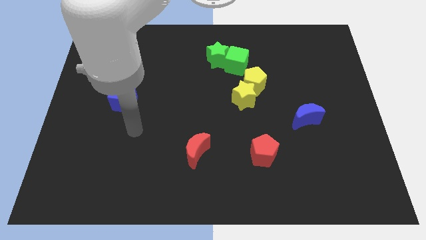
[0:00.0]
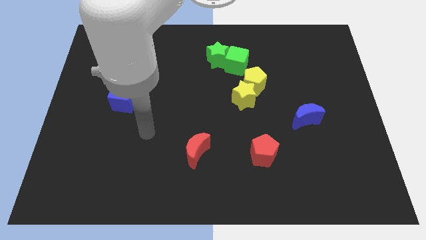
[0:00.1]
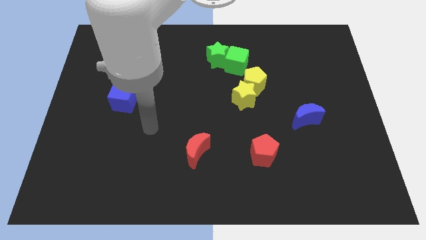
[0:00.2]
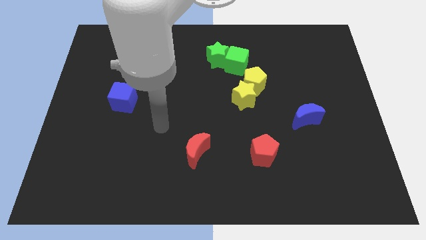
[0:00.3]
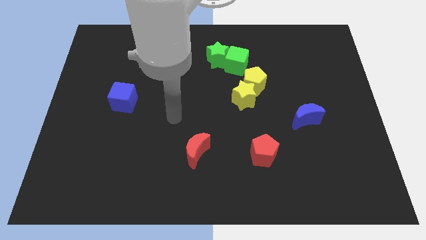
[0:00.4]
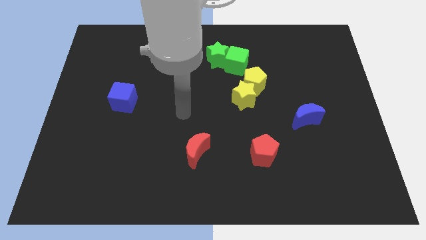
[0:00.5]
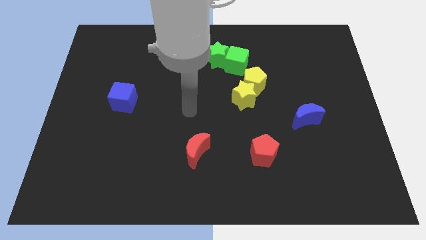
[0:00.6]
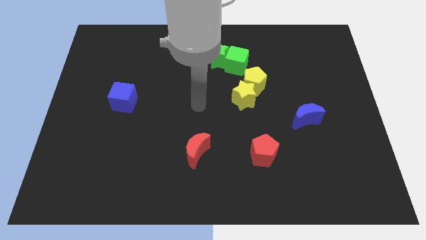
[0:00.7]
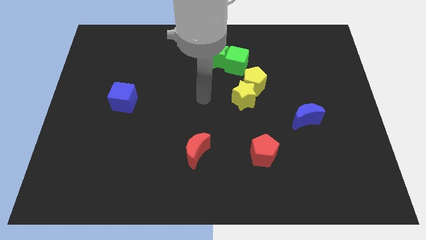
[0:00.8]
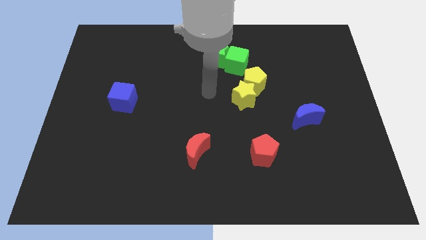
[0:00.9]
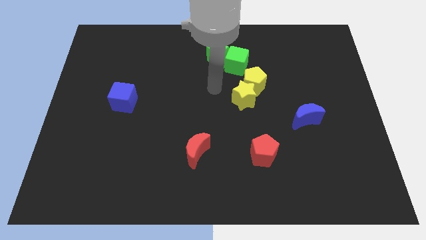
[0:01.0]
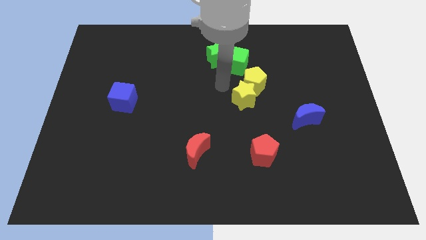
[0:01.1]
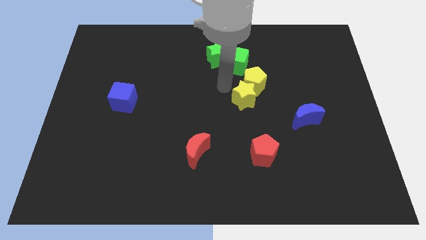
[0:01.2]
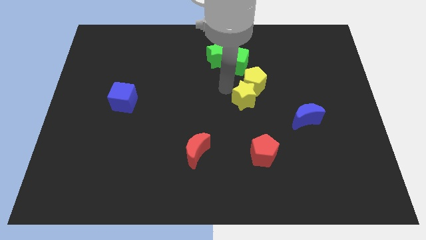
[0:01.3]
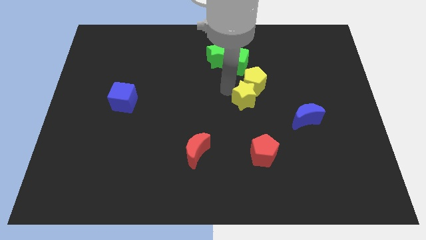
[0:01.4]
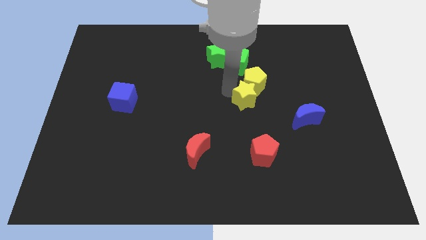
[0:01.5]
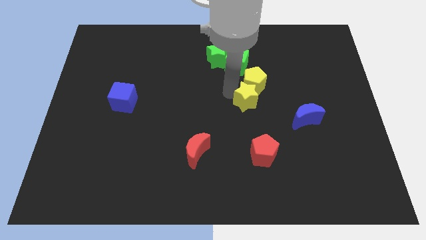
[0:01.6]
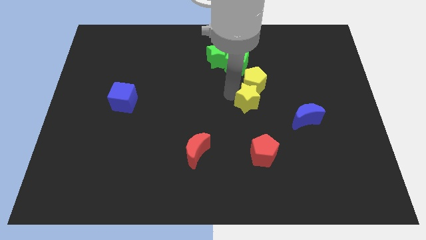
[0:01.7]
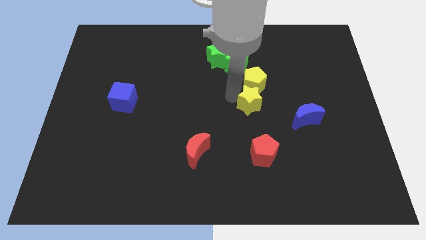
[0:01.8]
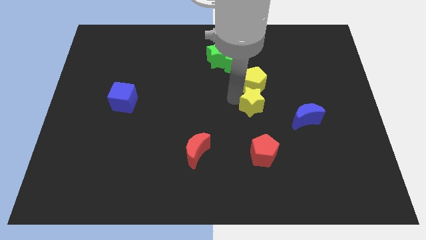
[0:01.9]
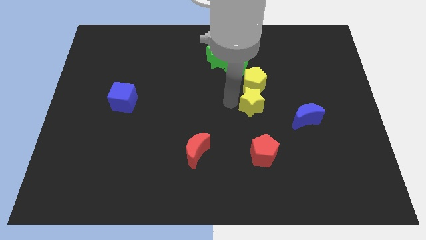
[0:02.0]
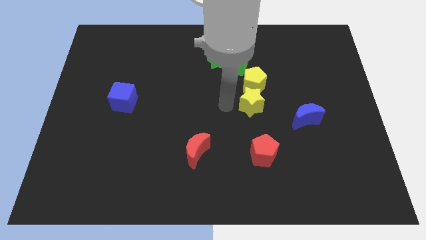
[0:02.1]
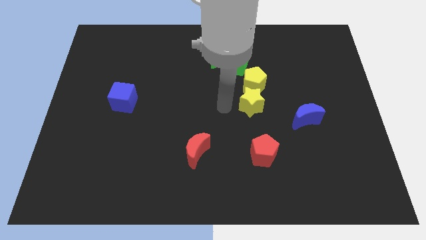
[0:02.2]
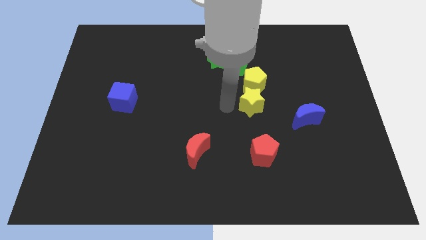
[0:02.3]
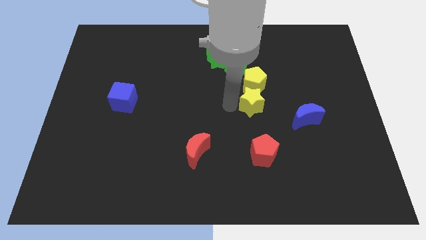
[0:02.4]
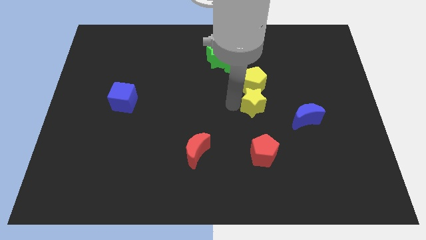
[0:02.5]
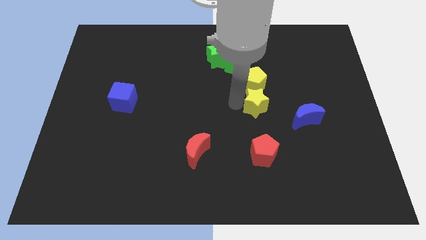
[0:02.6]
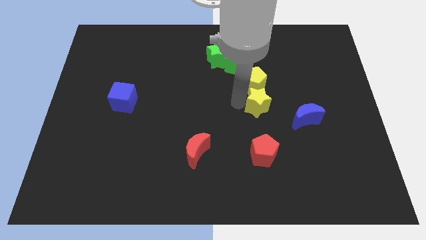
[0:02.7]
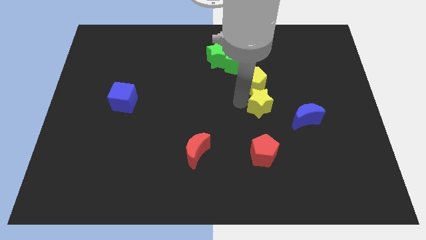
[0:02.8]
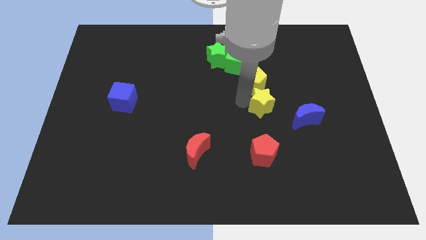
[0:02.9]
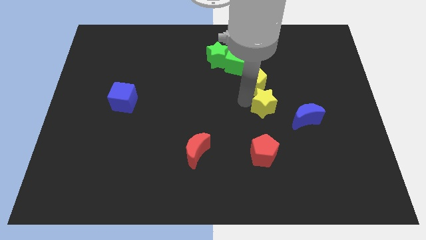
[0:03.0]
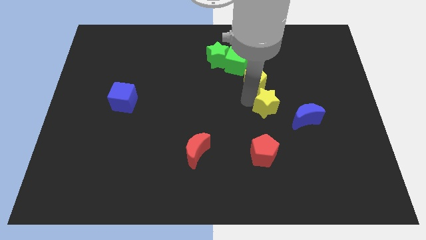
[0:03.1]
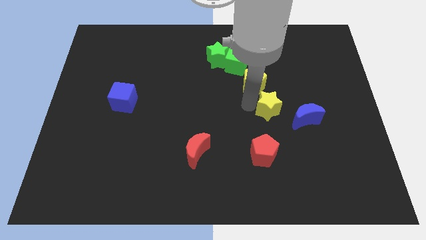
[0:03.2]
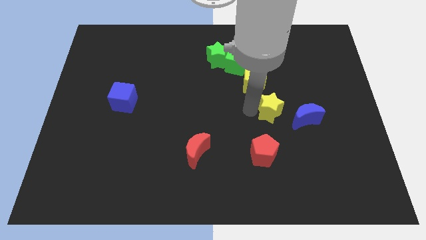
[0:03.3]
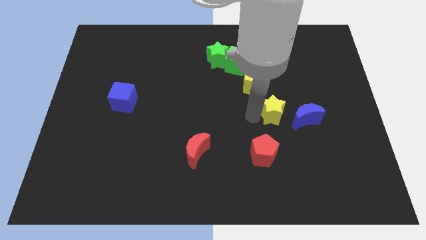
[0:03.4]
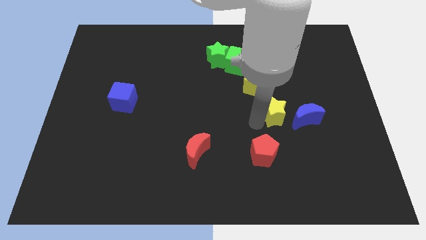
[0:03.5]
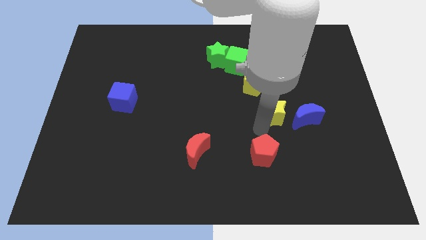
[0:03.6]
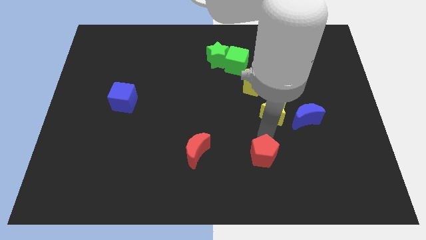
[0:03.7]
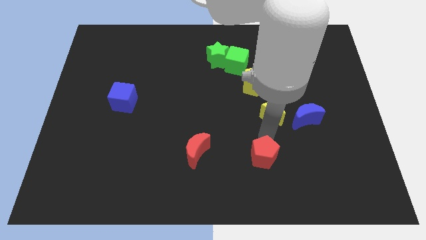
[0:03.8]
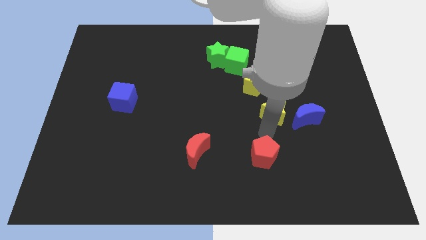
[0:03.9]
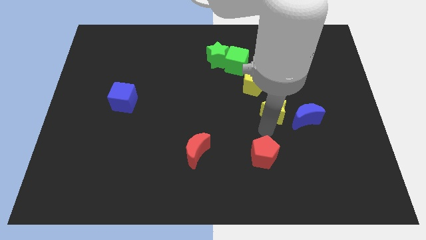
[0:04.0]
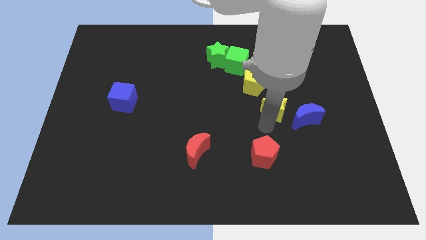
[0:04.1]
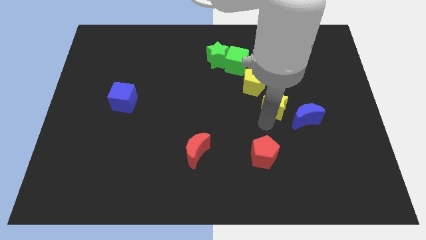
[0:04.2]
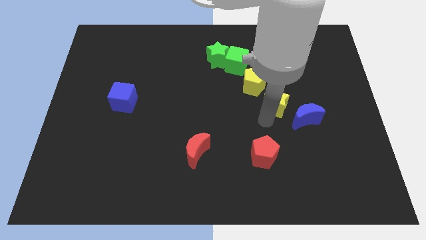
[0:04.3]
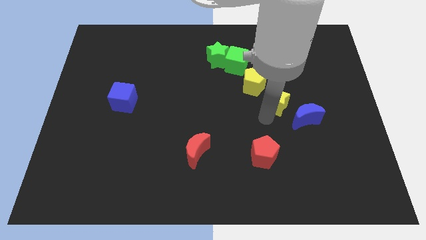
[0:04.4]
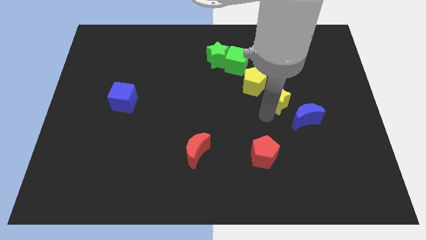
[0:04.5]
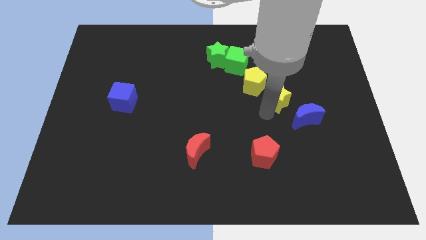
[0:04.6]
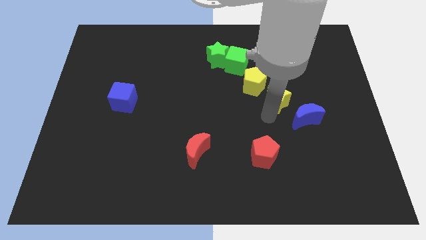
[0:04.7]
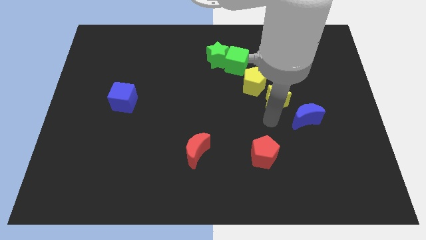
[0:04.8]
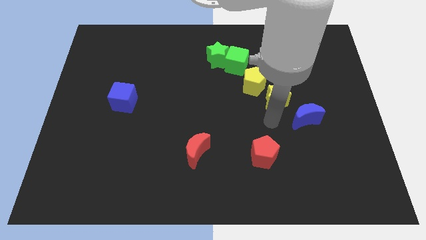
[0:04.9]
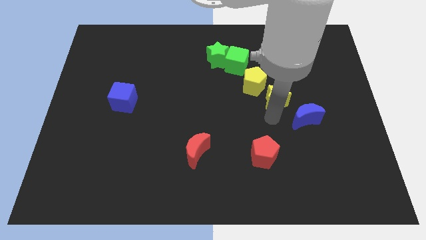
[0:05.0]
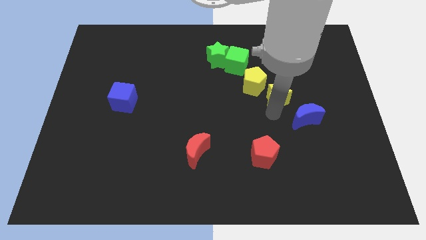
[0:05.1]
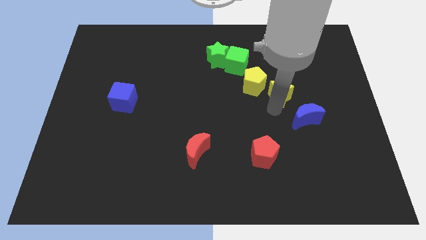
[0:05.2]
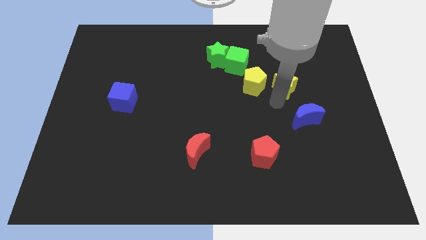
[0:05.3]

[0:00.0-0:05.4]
push the yellow star up and to the right a little

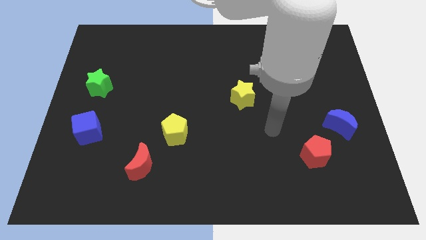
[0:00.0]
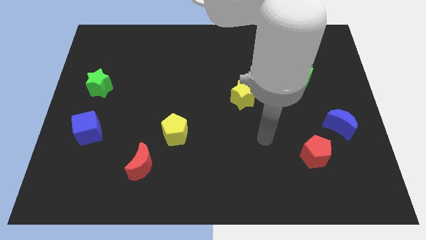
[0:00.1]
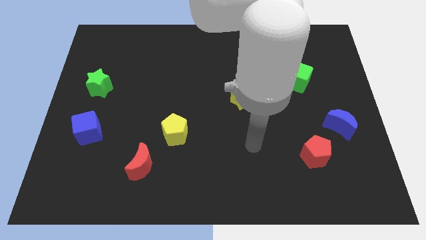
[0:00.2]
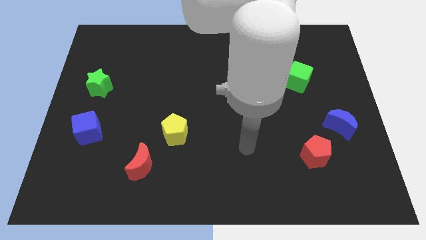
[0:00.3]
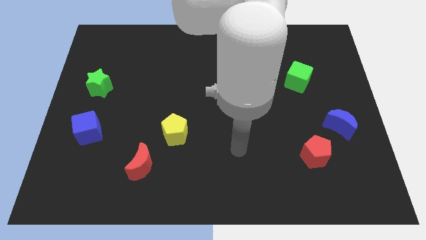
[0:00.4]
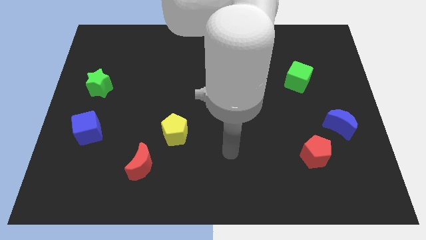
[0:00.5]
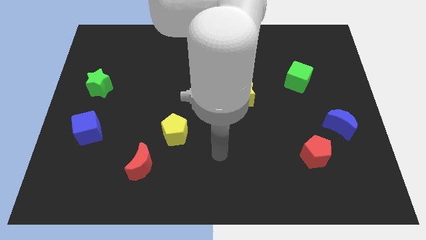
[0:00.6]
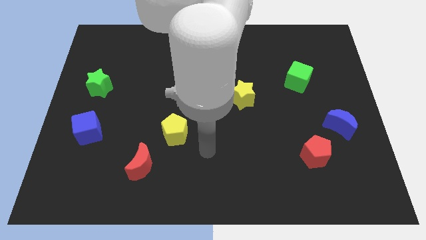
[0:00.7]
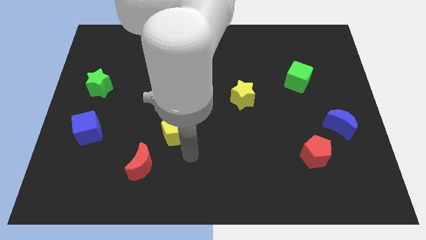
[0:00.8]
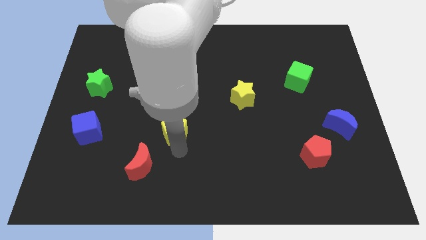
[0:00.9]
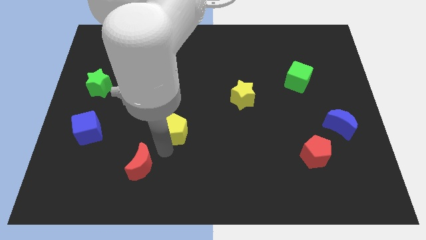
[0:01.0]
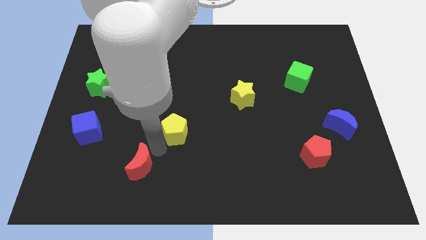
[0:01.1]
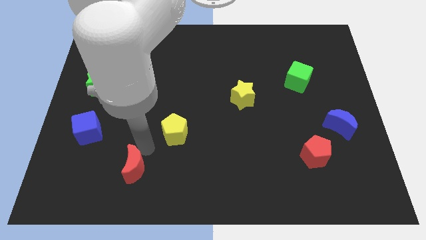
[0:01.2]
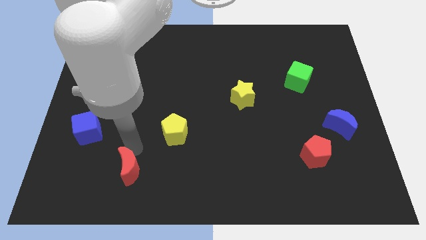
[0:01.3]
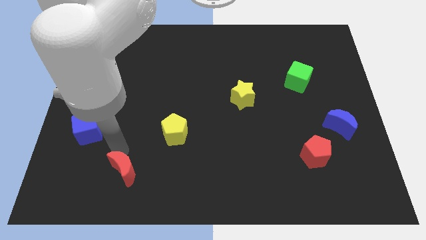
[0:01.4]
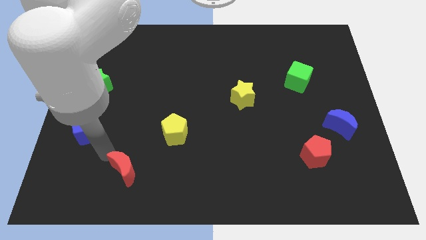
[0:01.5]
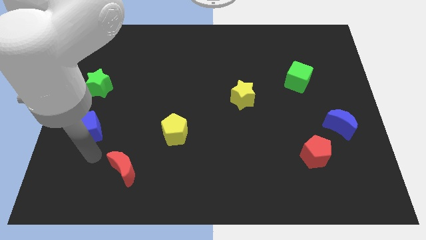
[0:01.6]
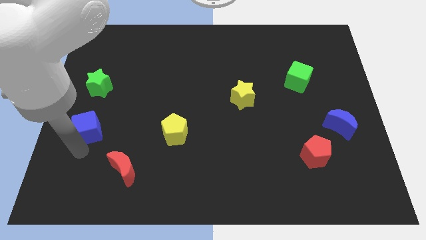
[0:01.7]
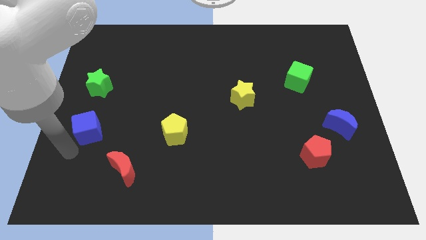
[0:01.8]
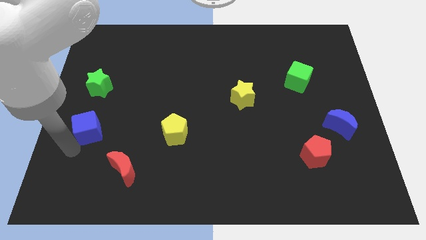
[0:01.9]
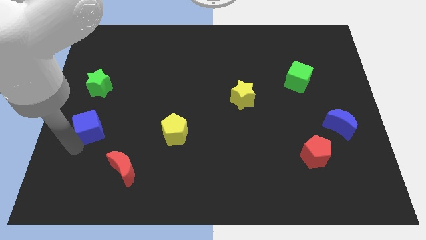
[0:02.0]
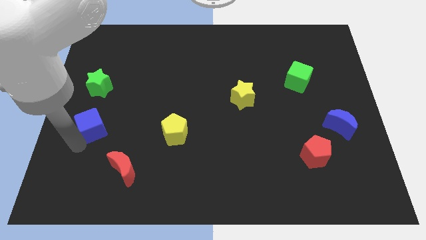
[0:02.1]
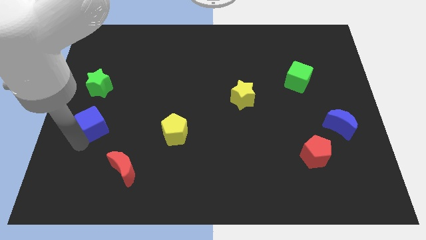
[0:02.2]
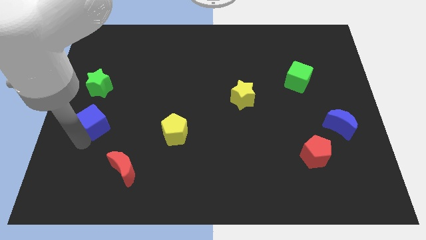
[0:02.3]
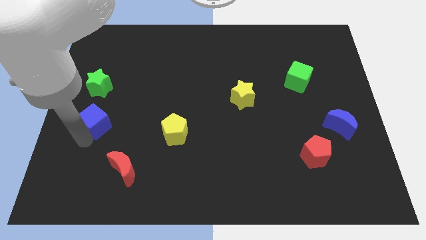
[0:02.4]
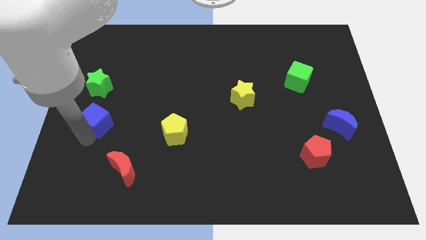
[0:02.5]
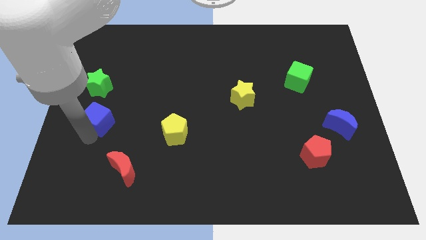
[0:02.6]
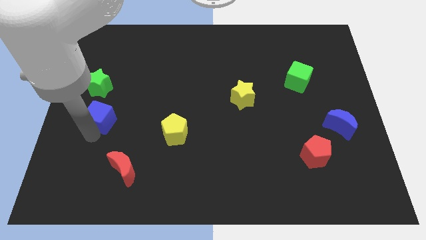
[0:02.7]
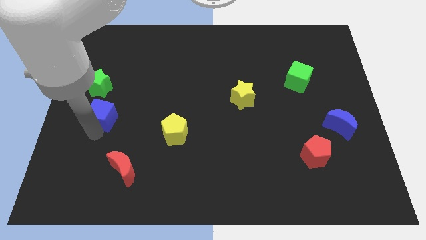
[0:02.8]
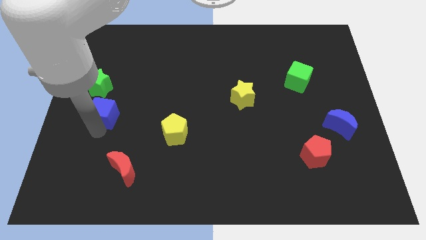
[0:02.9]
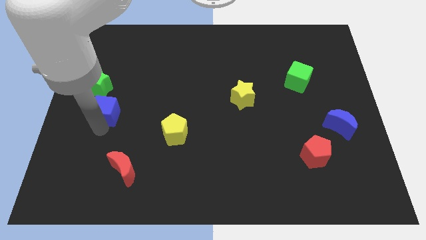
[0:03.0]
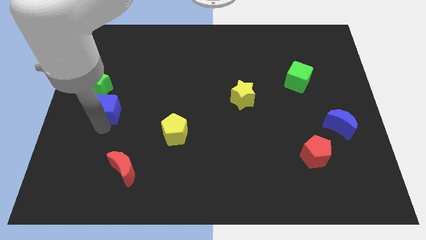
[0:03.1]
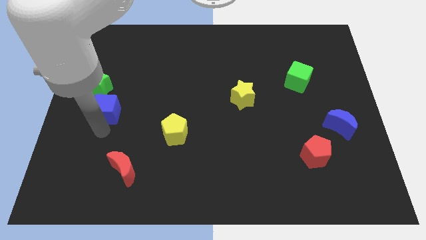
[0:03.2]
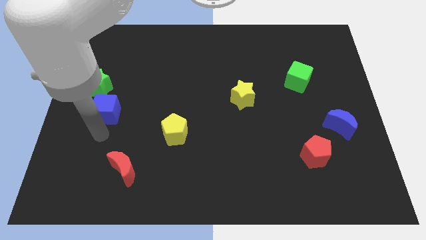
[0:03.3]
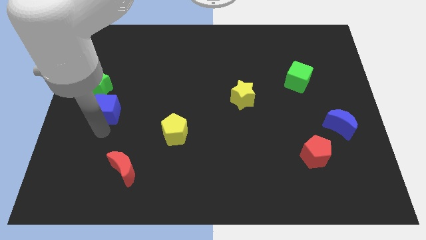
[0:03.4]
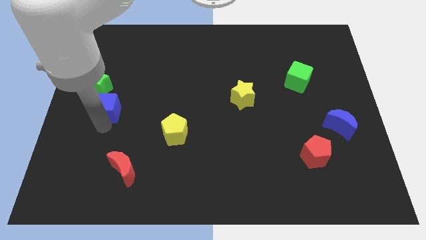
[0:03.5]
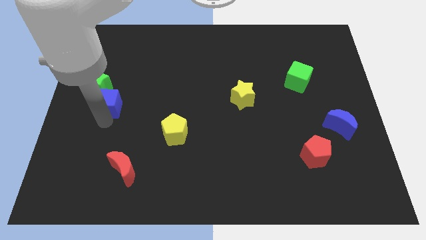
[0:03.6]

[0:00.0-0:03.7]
slide the blue cube upwards somewhat
